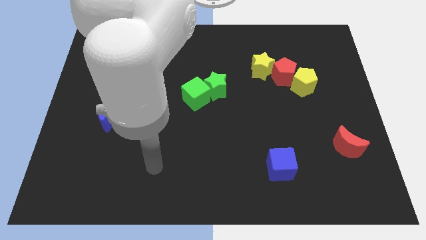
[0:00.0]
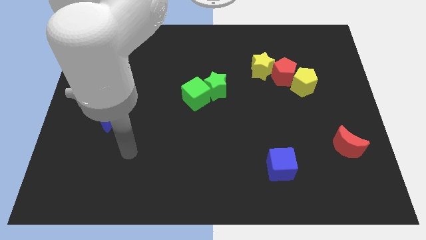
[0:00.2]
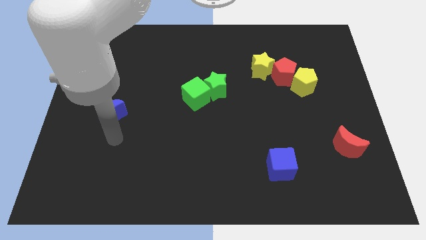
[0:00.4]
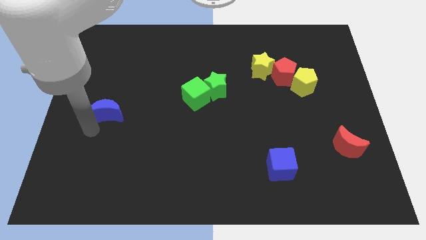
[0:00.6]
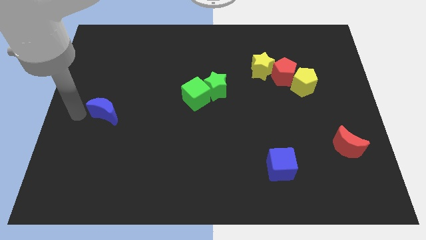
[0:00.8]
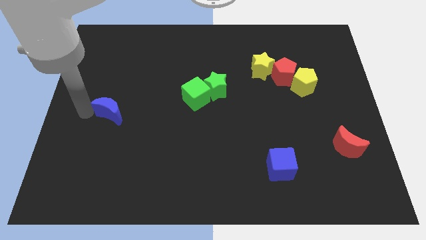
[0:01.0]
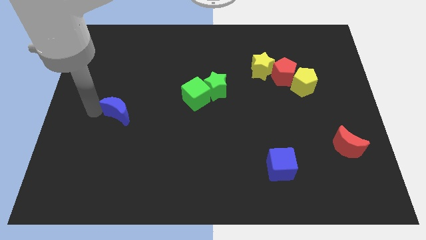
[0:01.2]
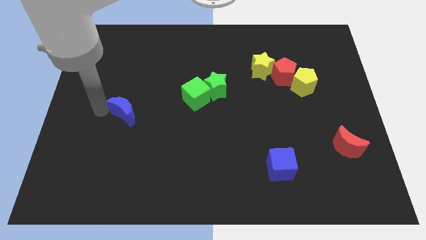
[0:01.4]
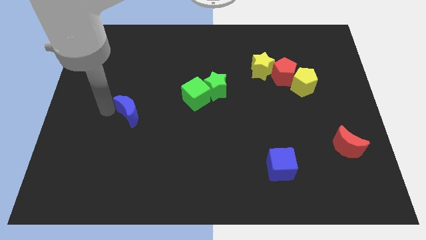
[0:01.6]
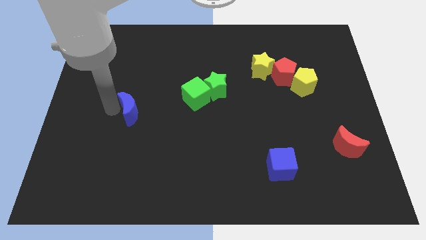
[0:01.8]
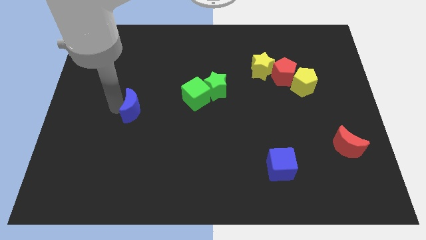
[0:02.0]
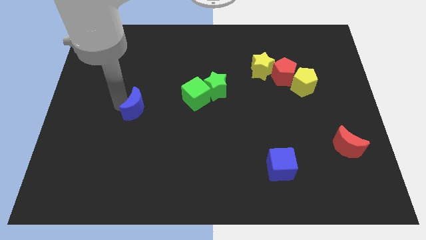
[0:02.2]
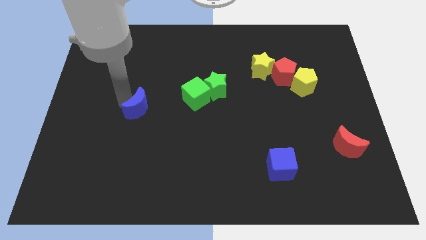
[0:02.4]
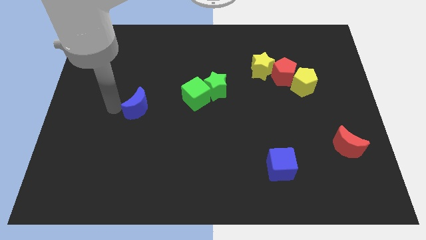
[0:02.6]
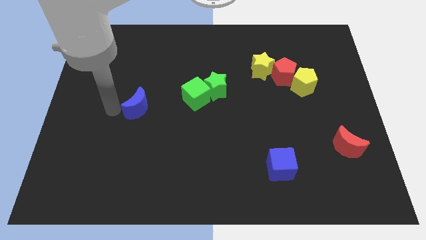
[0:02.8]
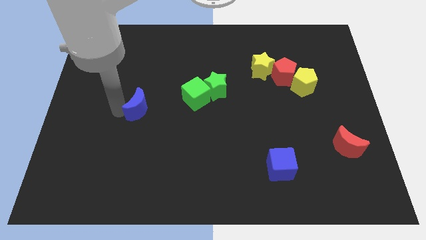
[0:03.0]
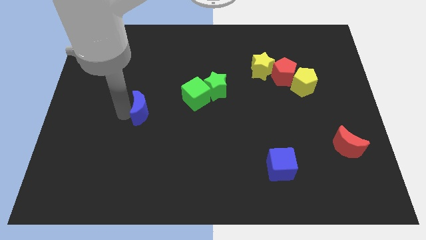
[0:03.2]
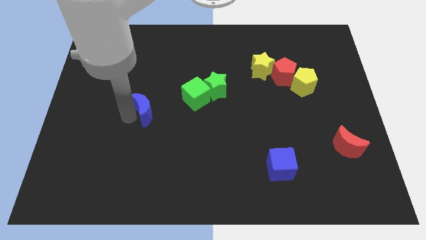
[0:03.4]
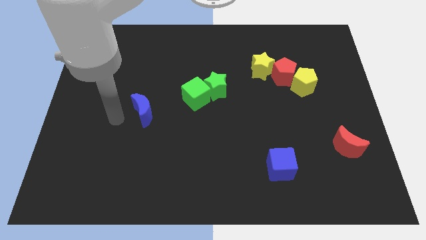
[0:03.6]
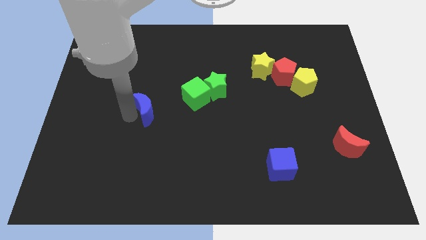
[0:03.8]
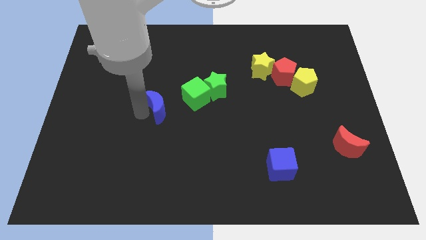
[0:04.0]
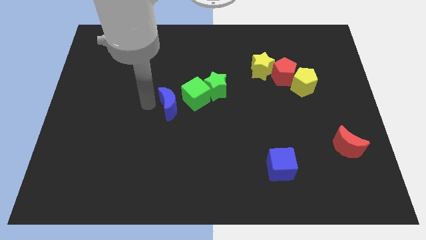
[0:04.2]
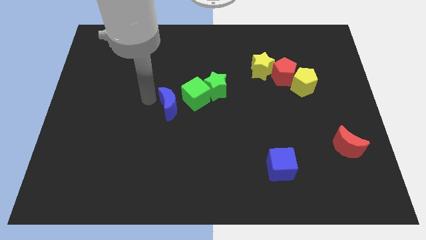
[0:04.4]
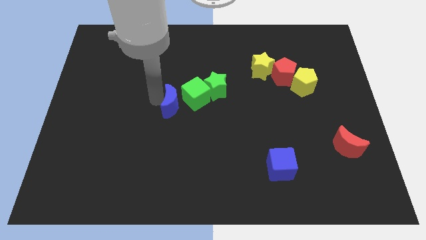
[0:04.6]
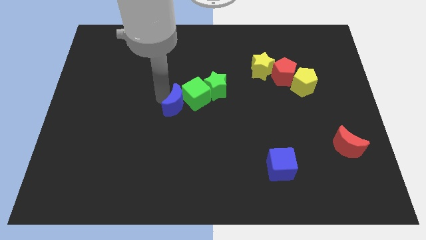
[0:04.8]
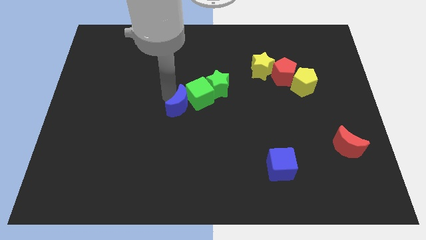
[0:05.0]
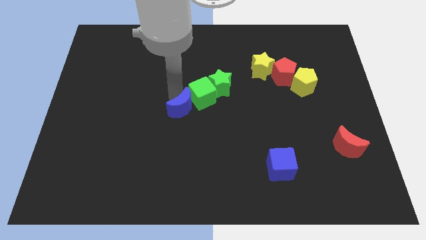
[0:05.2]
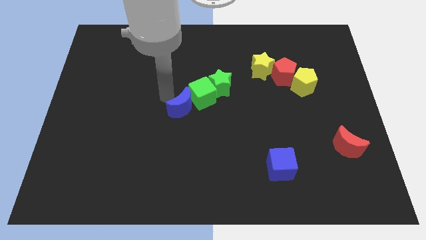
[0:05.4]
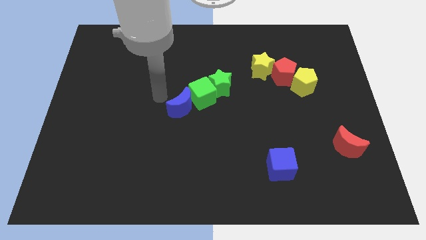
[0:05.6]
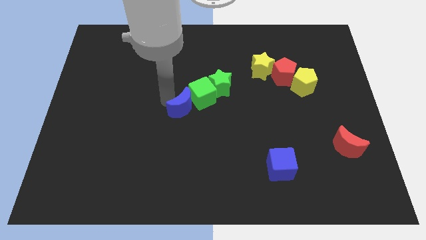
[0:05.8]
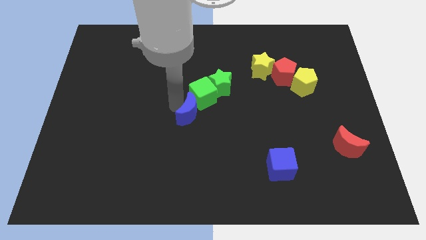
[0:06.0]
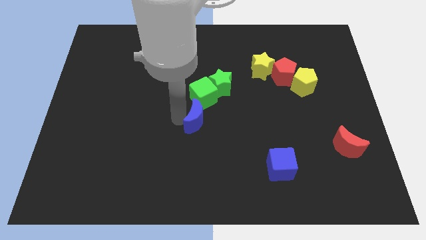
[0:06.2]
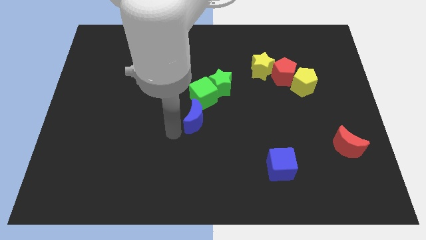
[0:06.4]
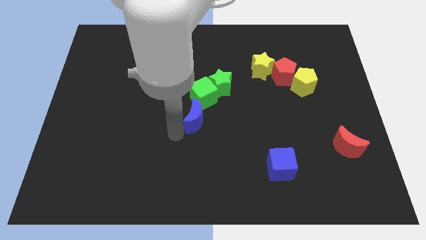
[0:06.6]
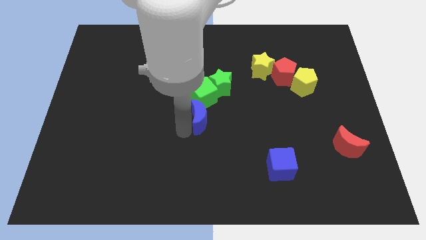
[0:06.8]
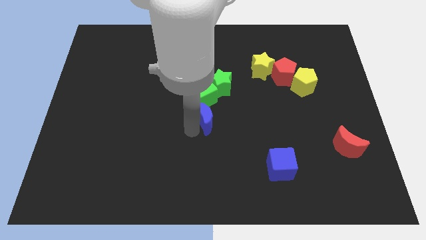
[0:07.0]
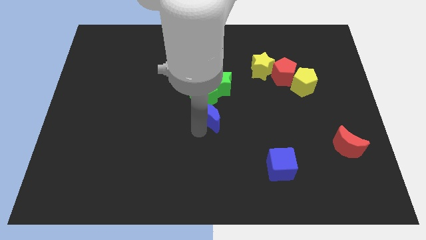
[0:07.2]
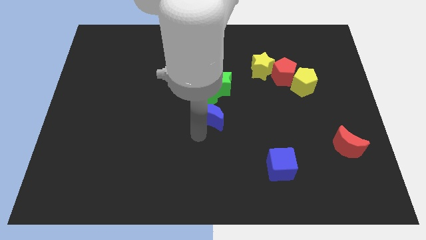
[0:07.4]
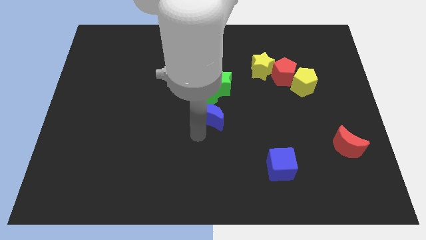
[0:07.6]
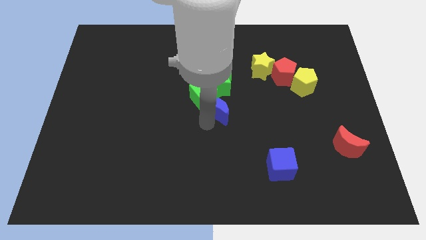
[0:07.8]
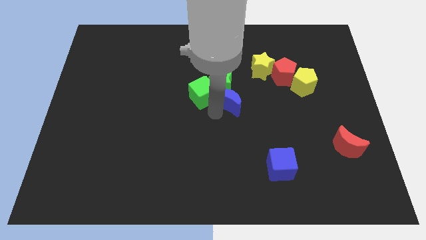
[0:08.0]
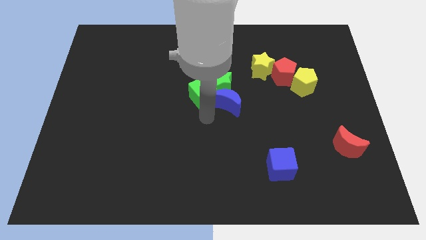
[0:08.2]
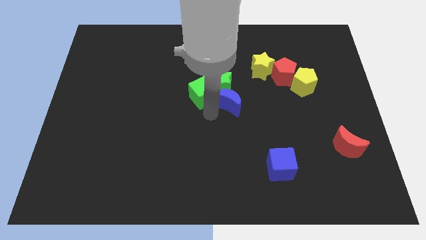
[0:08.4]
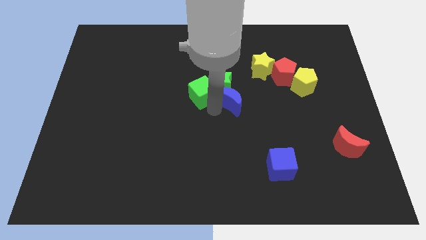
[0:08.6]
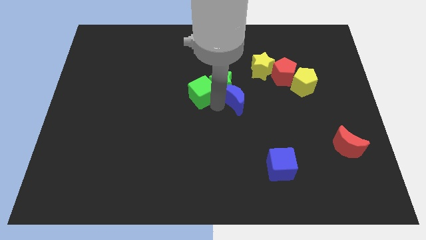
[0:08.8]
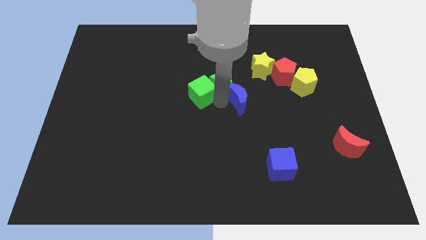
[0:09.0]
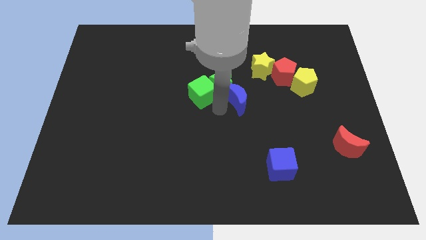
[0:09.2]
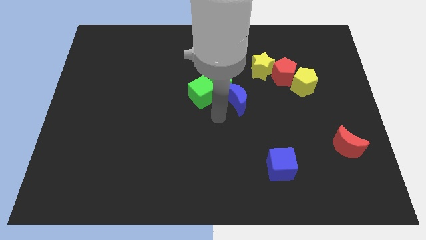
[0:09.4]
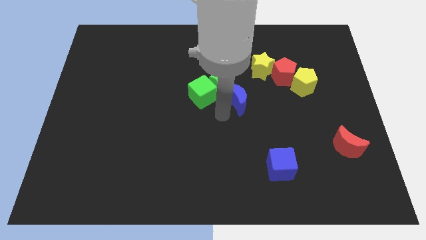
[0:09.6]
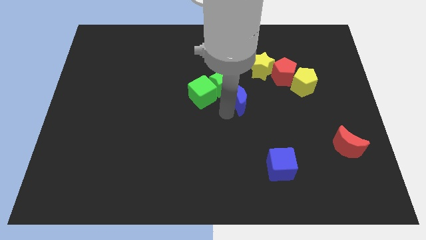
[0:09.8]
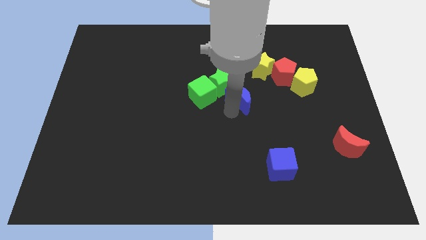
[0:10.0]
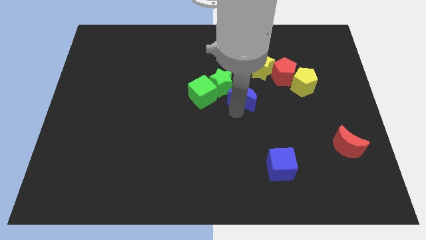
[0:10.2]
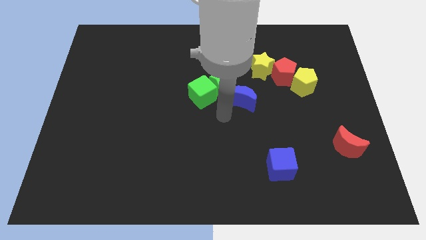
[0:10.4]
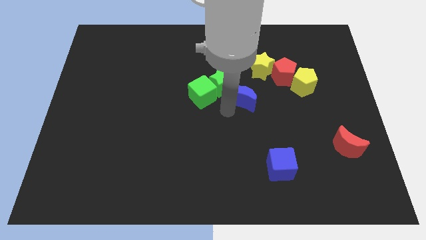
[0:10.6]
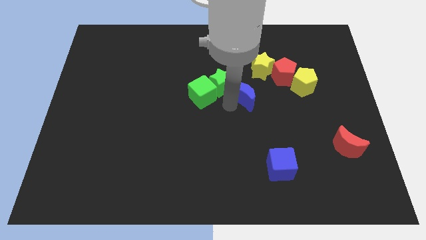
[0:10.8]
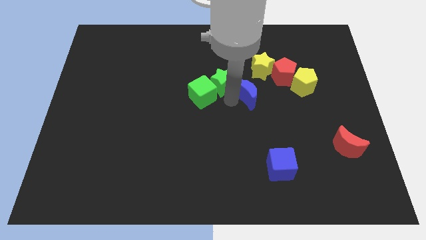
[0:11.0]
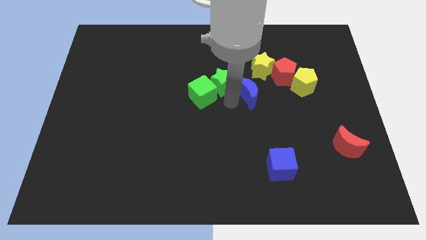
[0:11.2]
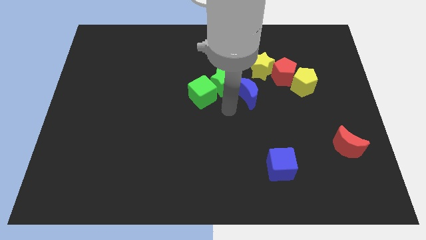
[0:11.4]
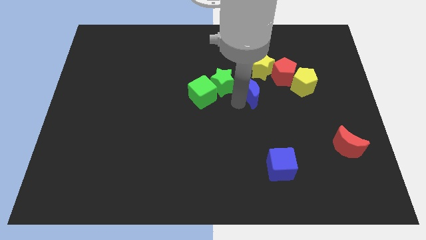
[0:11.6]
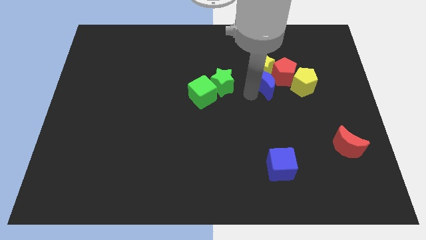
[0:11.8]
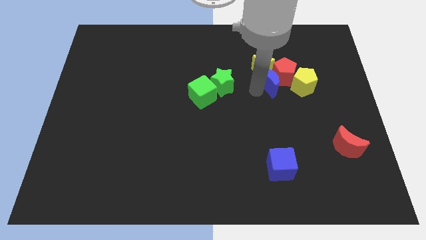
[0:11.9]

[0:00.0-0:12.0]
slide the blue moon close to the red pentagon

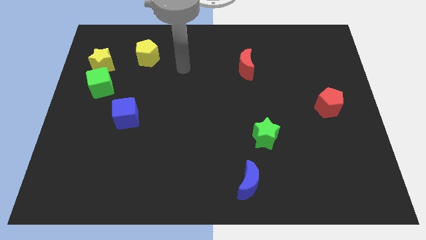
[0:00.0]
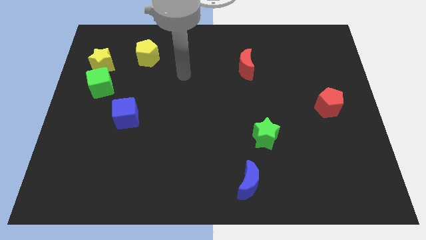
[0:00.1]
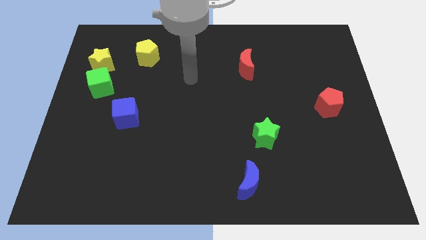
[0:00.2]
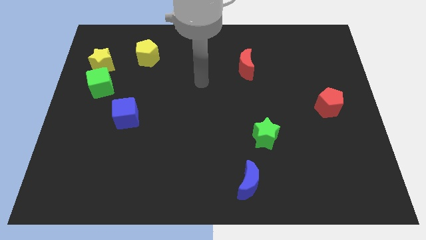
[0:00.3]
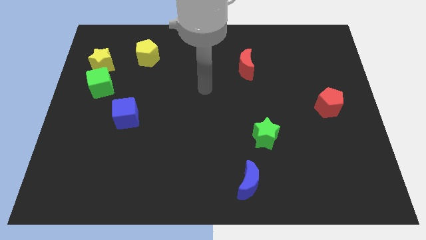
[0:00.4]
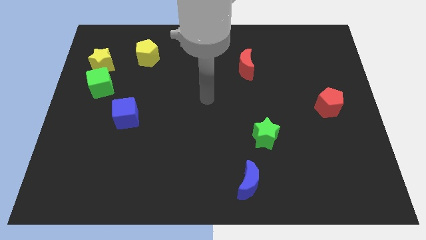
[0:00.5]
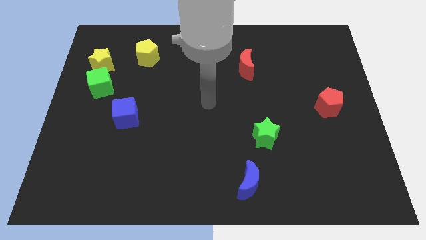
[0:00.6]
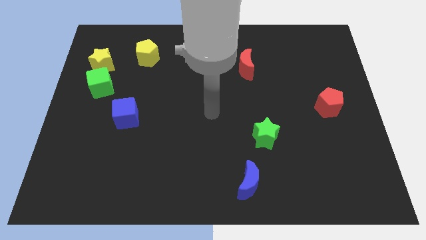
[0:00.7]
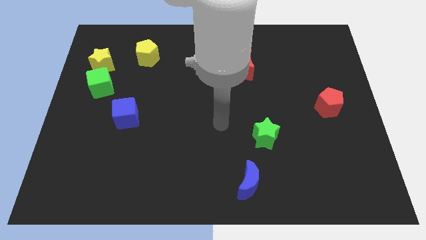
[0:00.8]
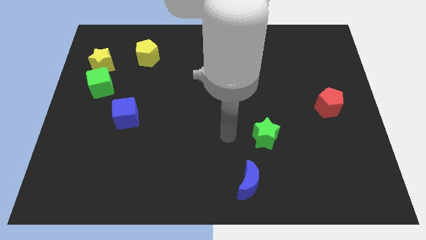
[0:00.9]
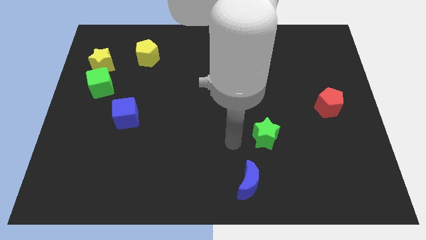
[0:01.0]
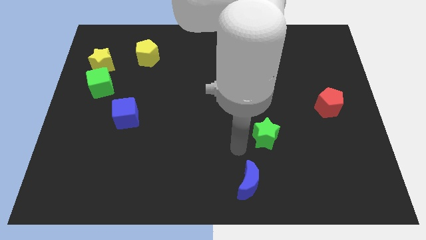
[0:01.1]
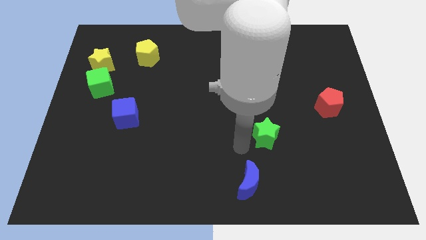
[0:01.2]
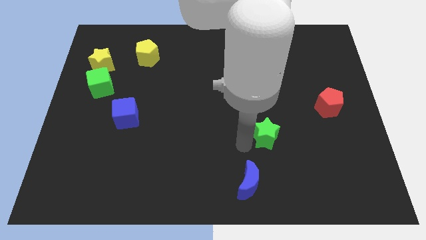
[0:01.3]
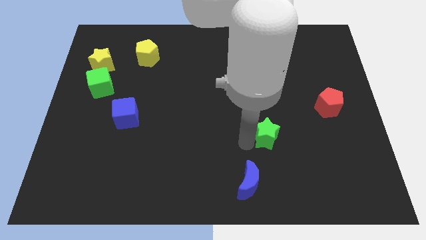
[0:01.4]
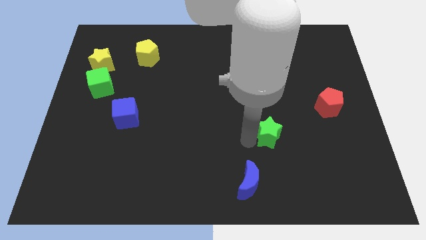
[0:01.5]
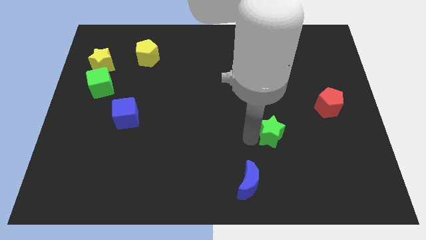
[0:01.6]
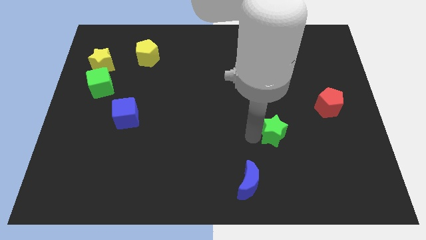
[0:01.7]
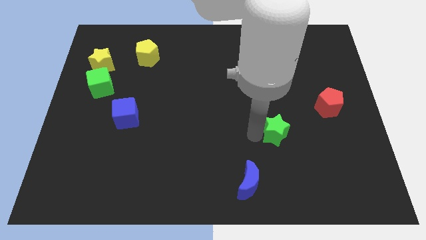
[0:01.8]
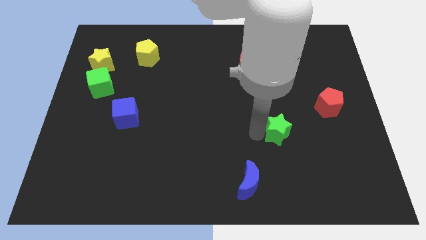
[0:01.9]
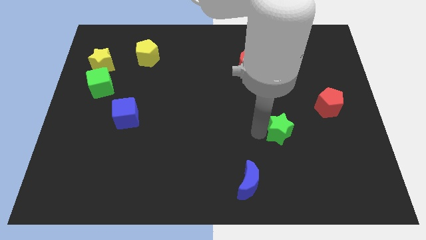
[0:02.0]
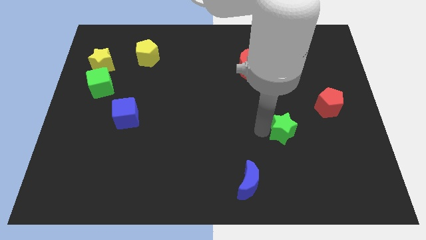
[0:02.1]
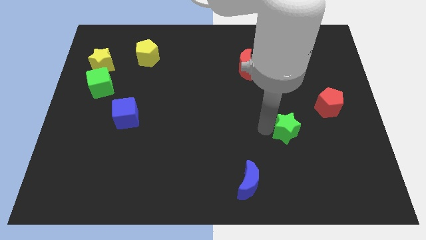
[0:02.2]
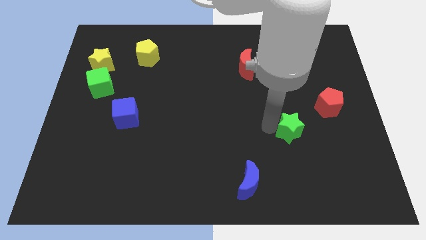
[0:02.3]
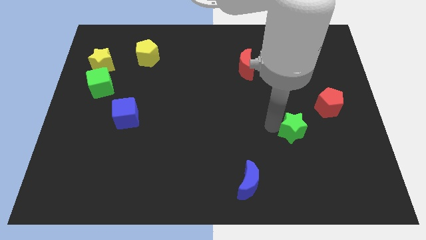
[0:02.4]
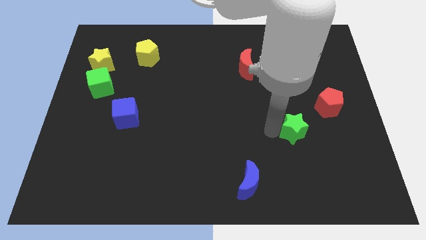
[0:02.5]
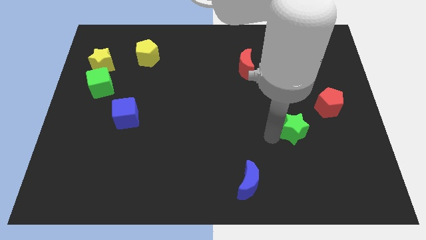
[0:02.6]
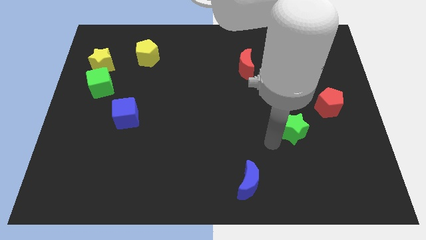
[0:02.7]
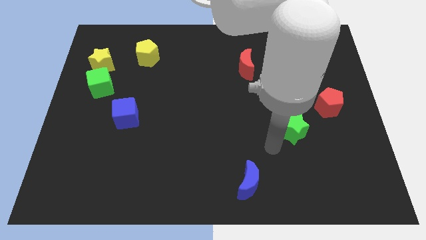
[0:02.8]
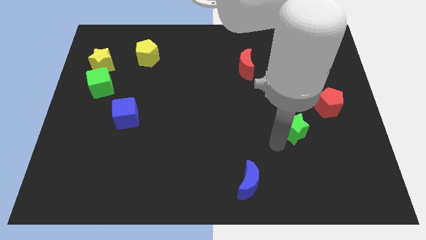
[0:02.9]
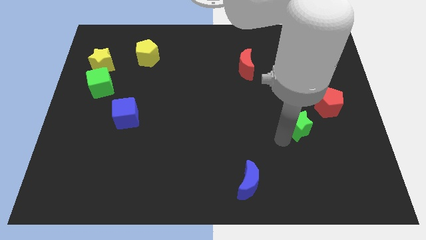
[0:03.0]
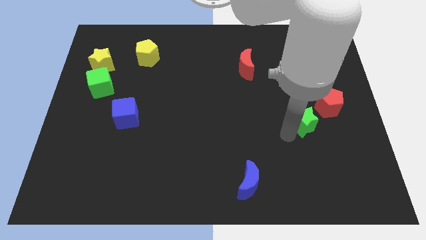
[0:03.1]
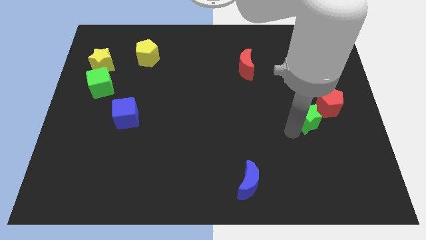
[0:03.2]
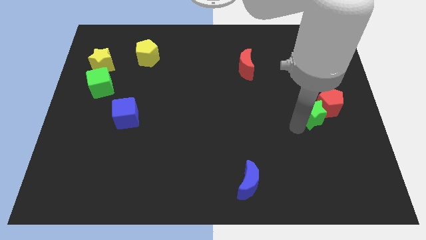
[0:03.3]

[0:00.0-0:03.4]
put the green star close to the red pentagon
